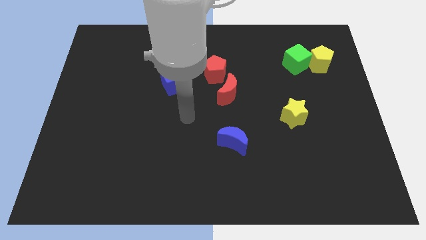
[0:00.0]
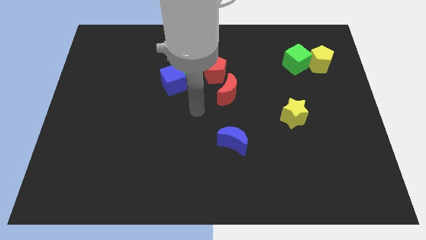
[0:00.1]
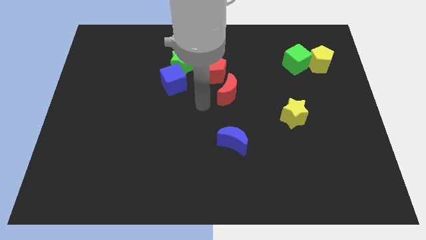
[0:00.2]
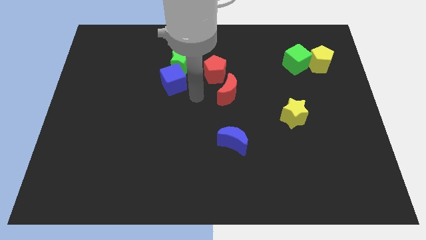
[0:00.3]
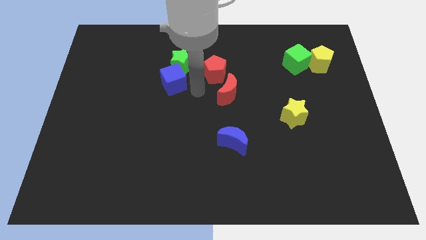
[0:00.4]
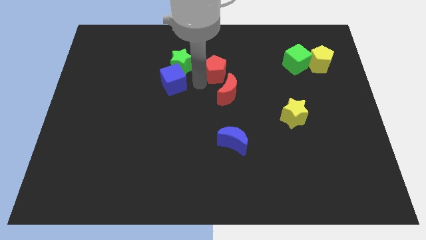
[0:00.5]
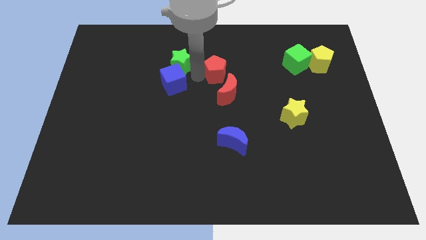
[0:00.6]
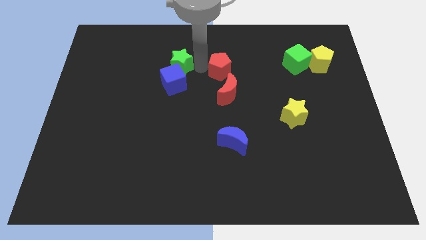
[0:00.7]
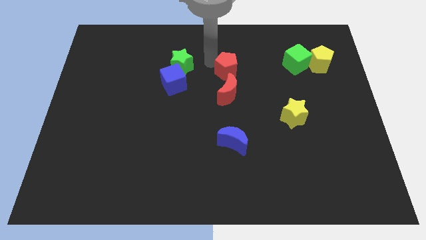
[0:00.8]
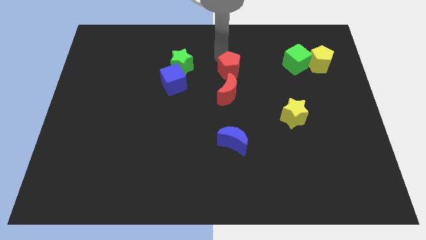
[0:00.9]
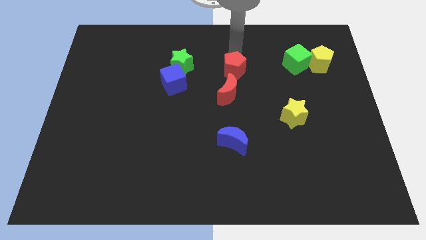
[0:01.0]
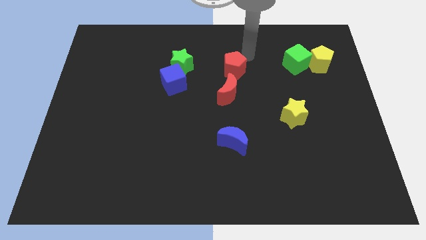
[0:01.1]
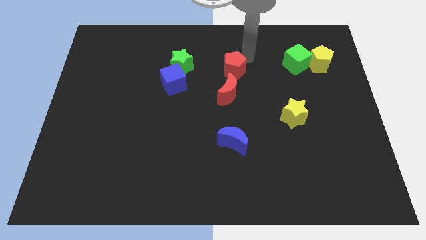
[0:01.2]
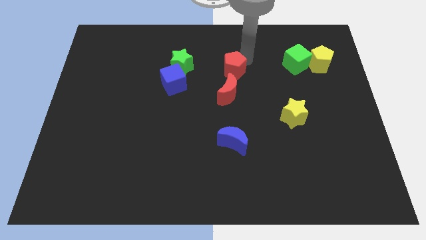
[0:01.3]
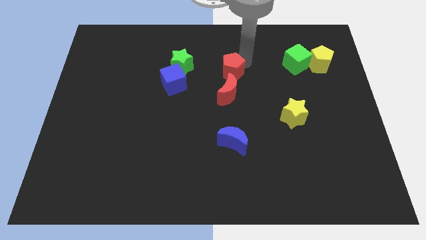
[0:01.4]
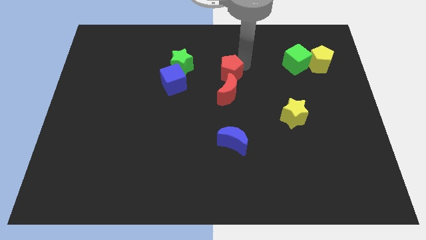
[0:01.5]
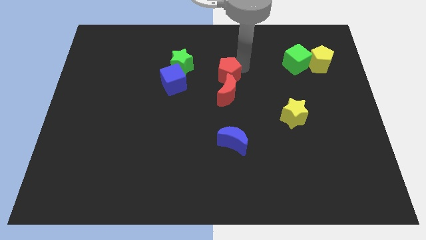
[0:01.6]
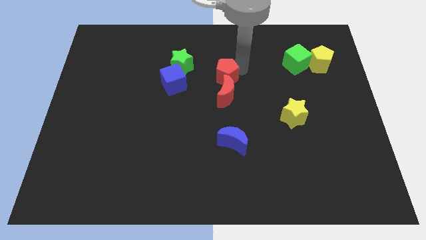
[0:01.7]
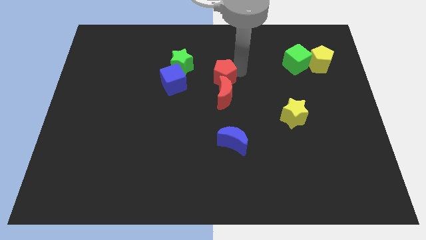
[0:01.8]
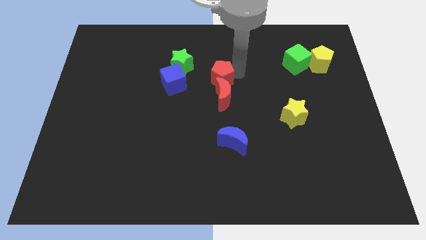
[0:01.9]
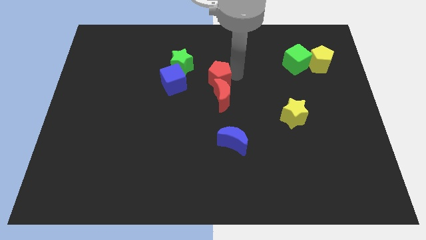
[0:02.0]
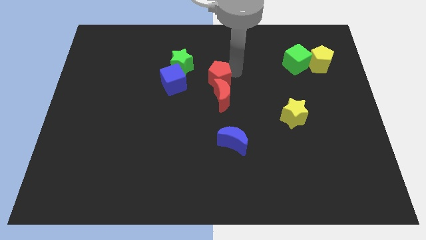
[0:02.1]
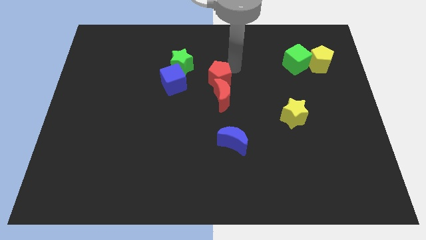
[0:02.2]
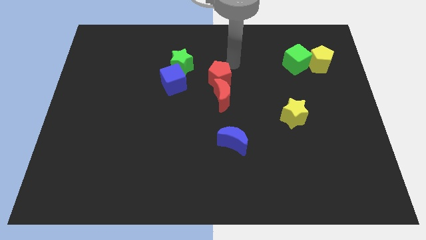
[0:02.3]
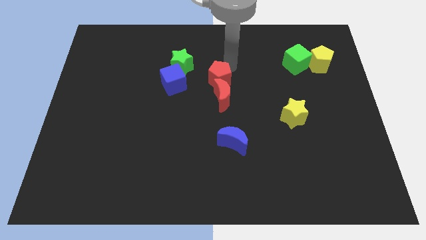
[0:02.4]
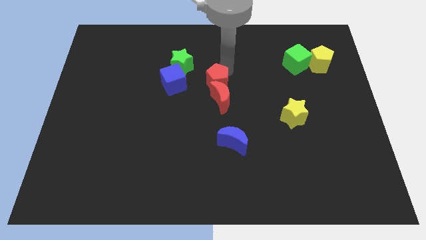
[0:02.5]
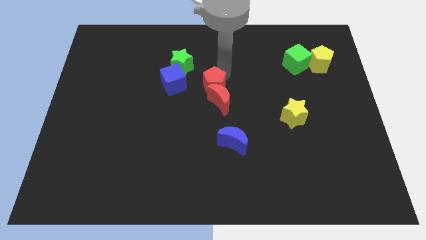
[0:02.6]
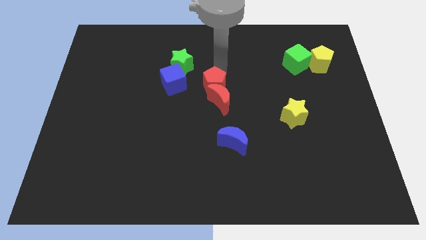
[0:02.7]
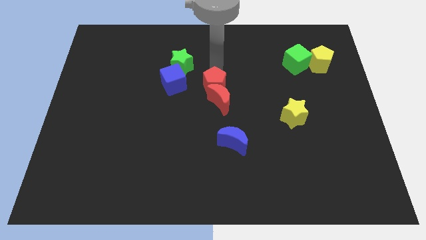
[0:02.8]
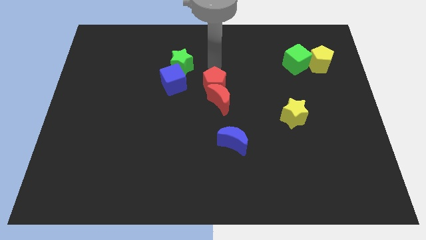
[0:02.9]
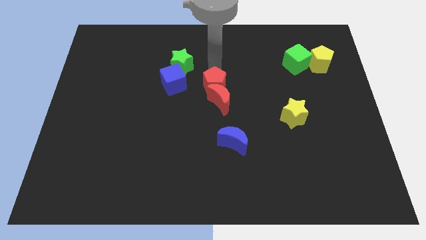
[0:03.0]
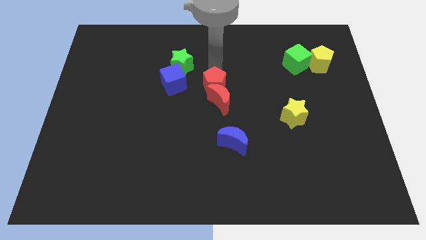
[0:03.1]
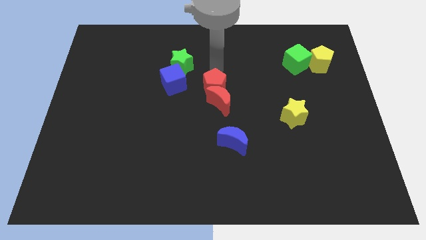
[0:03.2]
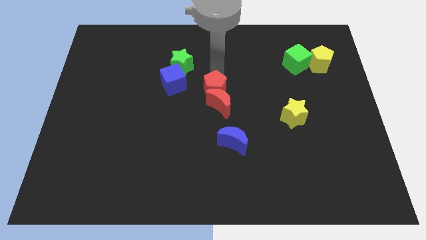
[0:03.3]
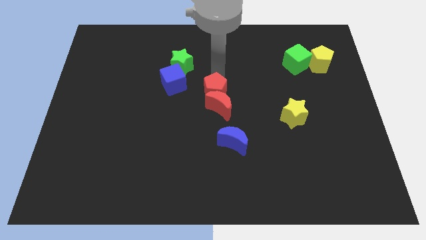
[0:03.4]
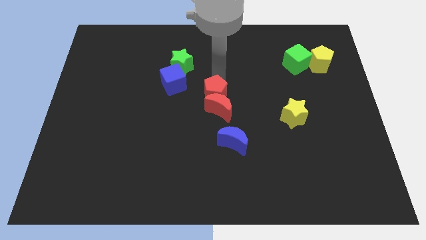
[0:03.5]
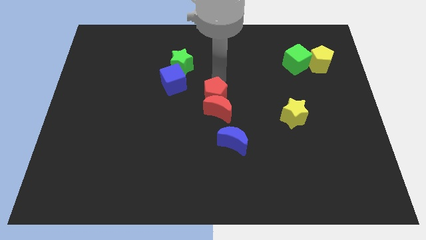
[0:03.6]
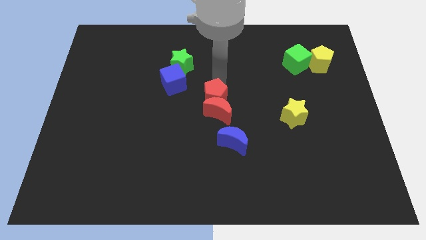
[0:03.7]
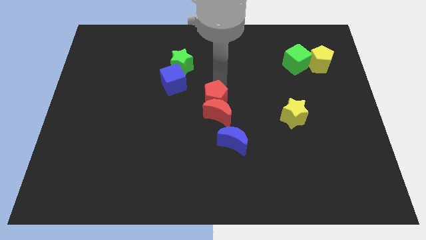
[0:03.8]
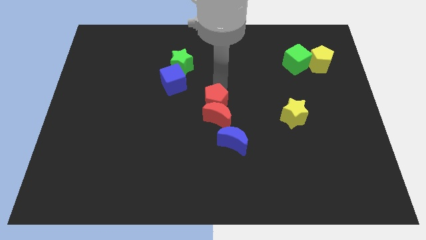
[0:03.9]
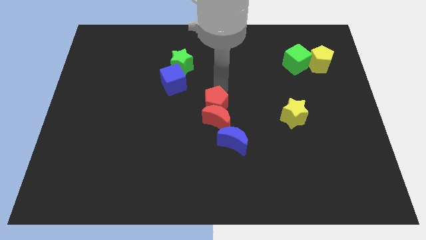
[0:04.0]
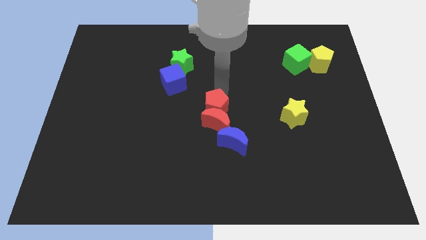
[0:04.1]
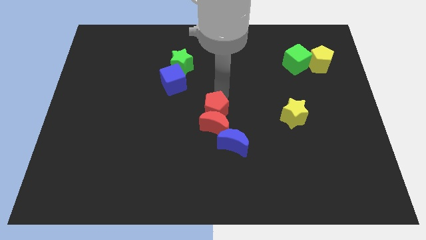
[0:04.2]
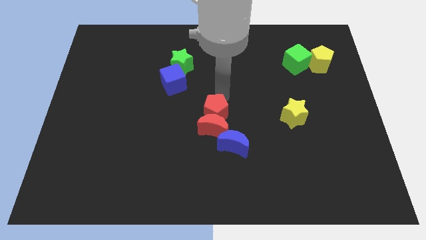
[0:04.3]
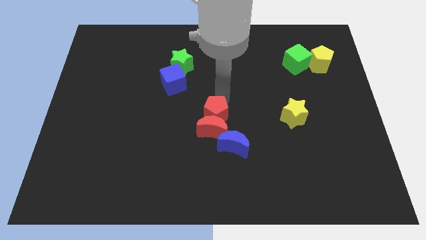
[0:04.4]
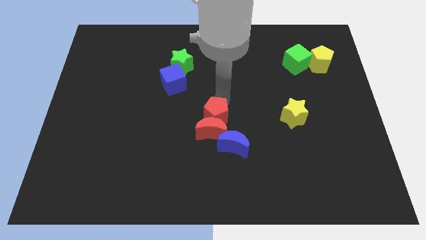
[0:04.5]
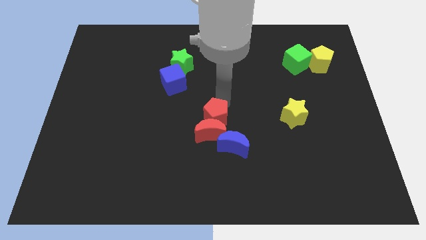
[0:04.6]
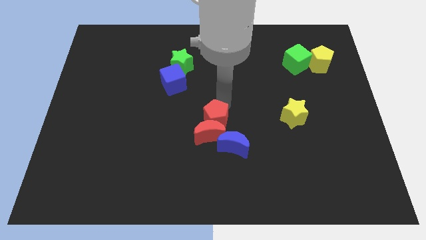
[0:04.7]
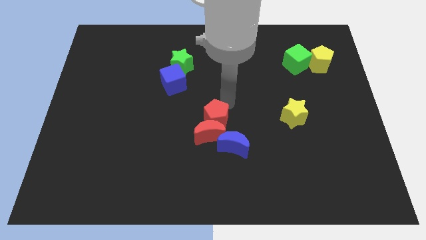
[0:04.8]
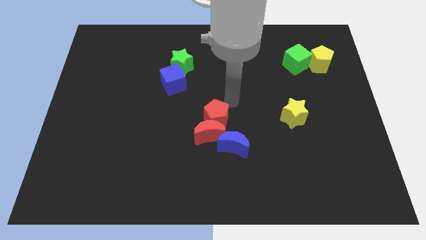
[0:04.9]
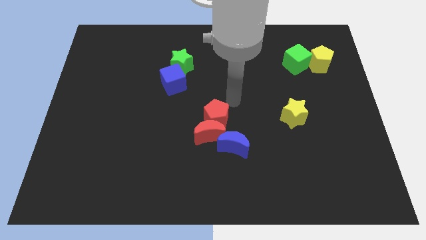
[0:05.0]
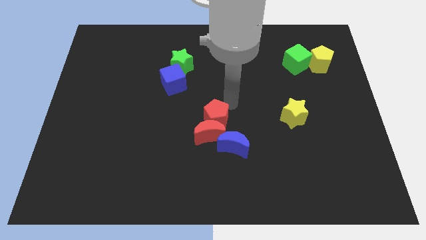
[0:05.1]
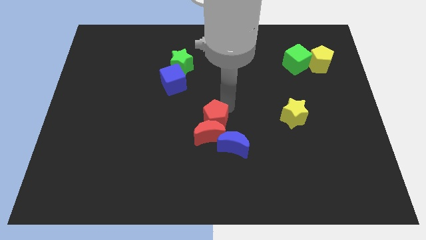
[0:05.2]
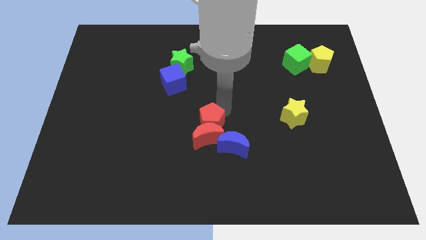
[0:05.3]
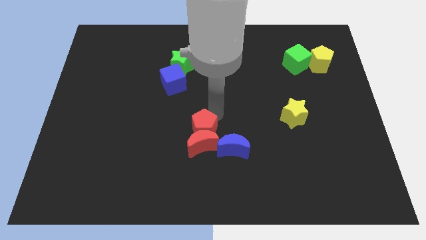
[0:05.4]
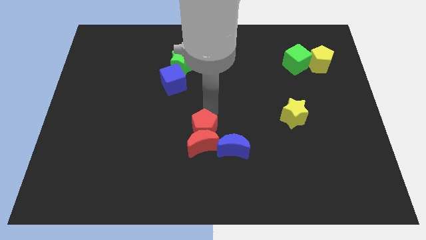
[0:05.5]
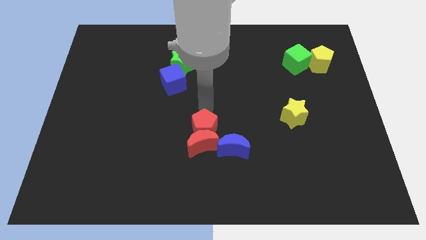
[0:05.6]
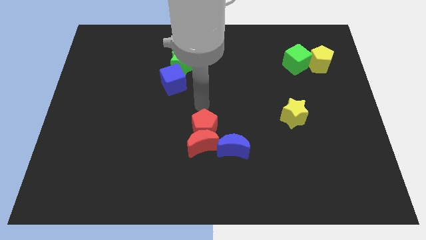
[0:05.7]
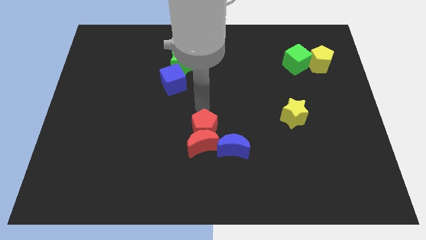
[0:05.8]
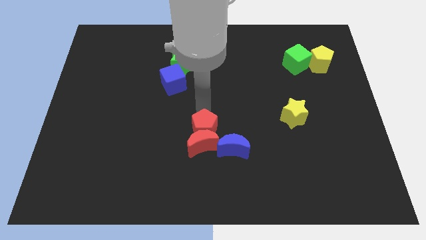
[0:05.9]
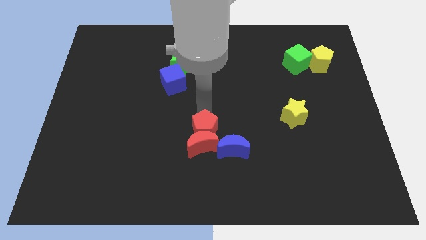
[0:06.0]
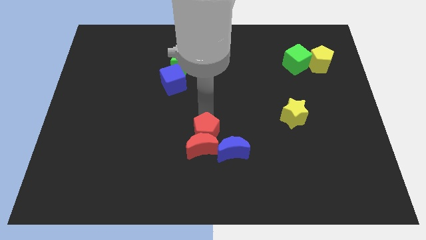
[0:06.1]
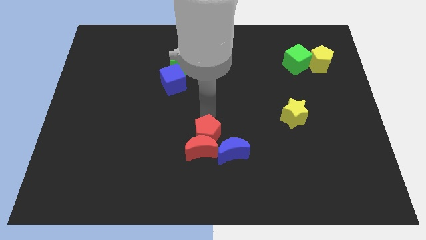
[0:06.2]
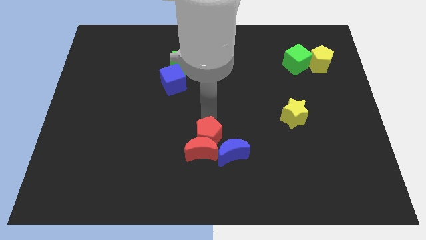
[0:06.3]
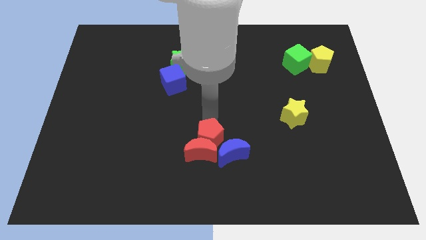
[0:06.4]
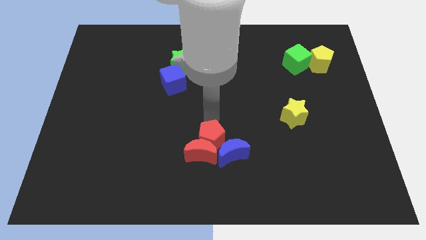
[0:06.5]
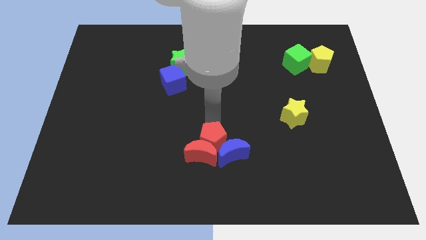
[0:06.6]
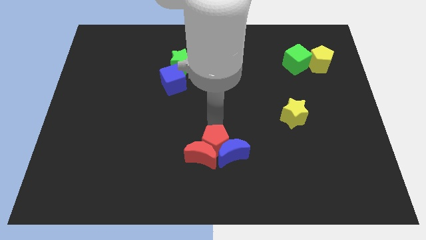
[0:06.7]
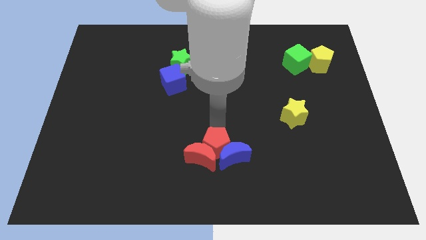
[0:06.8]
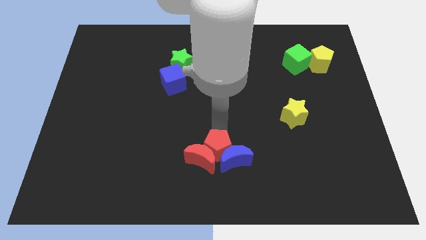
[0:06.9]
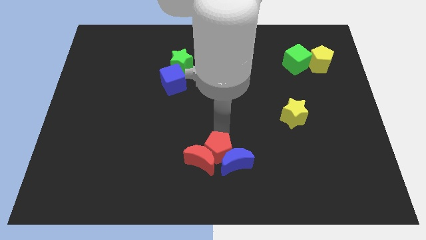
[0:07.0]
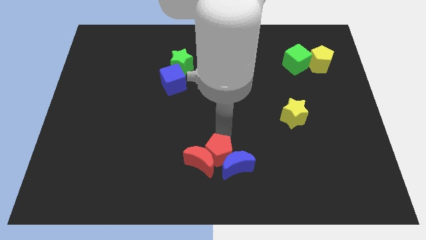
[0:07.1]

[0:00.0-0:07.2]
push the red pentagon to the bottom side

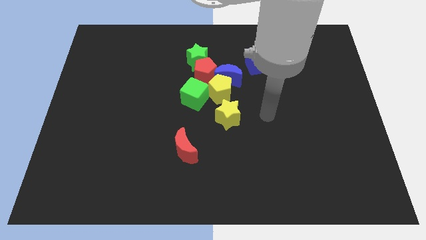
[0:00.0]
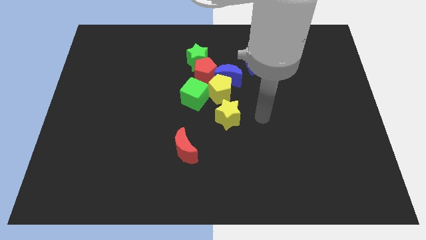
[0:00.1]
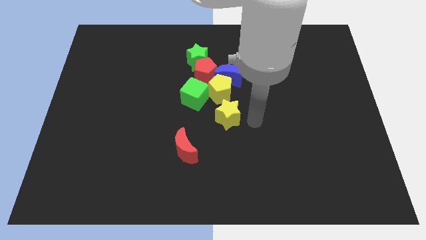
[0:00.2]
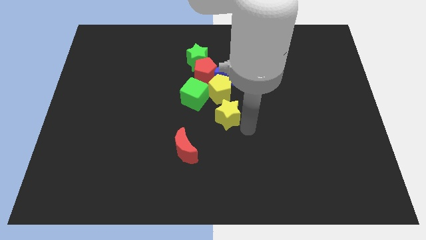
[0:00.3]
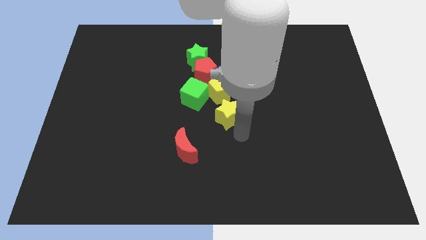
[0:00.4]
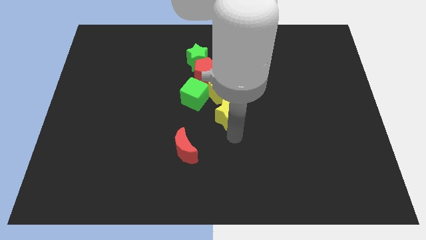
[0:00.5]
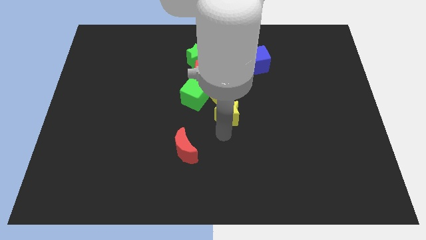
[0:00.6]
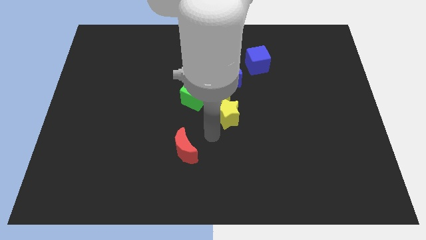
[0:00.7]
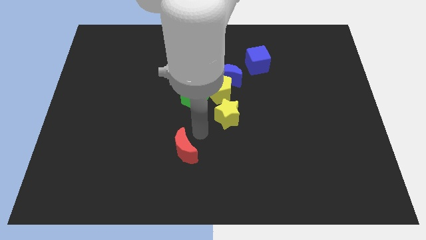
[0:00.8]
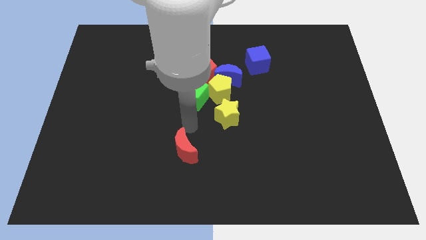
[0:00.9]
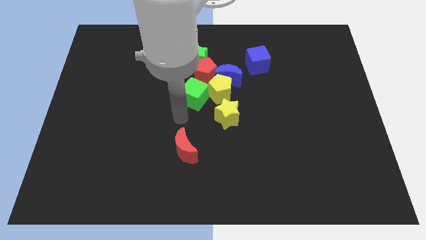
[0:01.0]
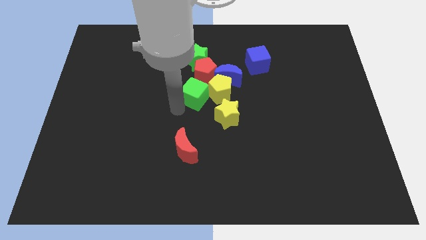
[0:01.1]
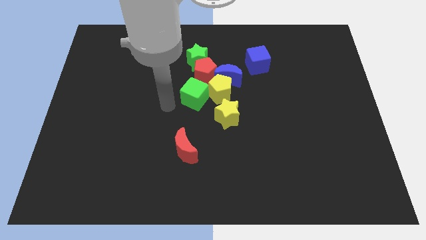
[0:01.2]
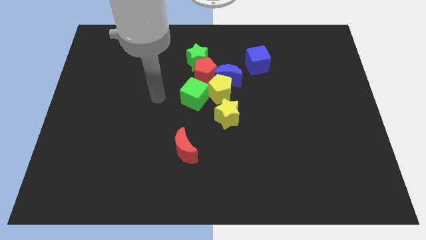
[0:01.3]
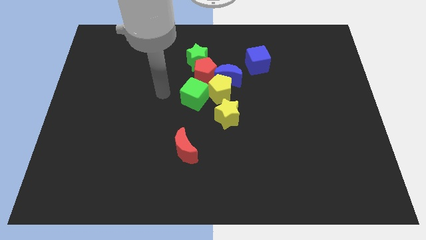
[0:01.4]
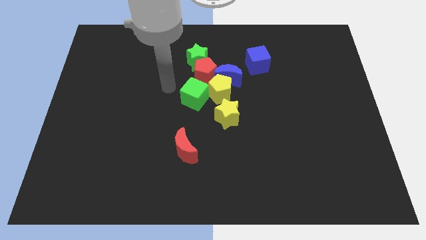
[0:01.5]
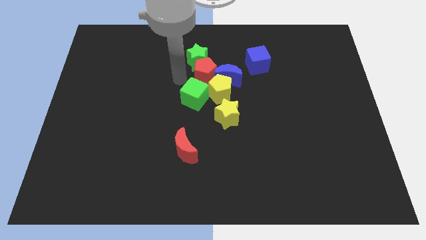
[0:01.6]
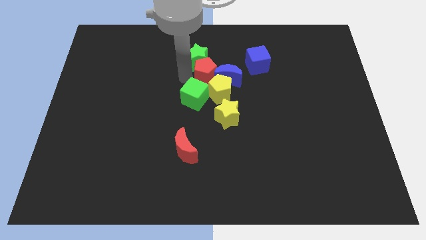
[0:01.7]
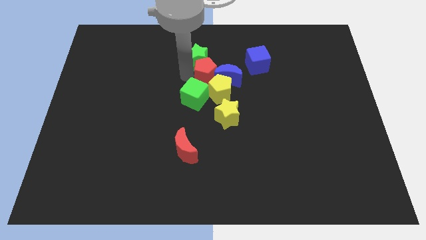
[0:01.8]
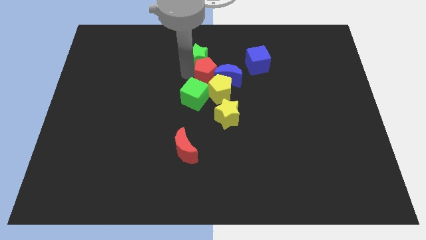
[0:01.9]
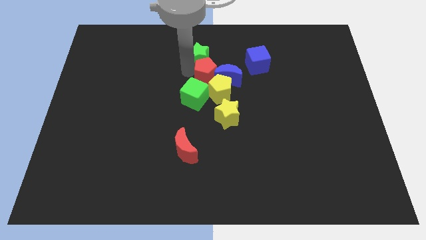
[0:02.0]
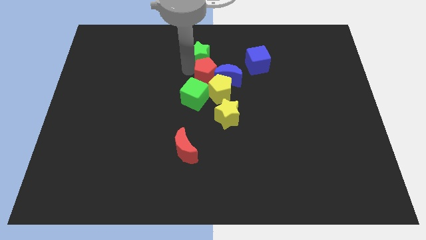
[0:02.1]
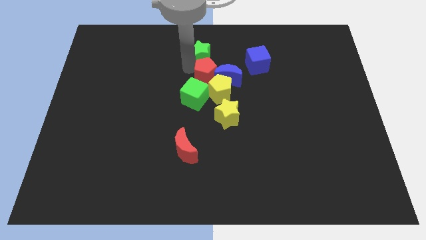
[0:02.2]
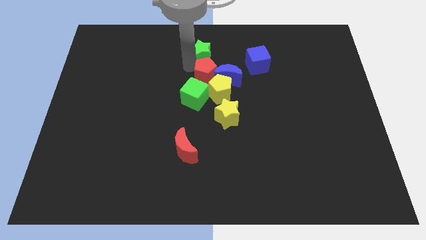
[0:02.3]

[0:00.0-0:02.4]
move the green star to the towards your base
